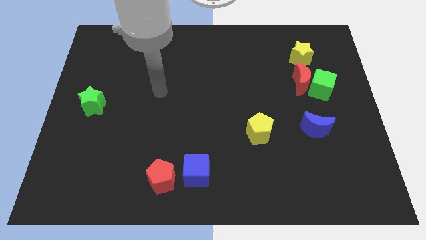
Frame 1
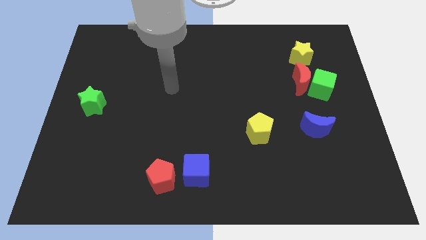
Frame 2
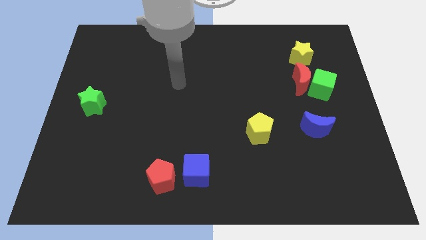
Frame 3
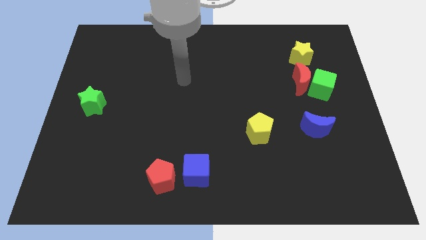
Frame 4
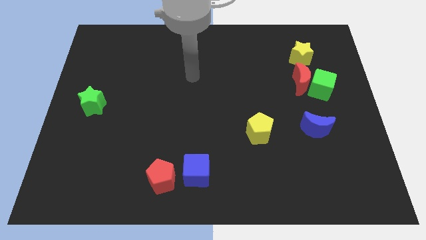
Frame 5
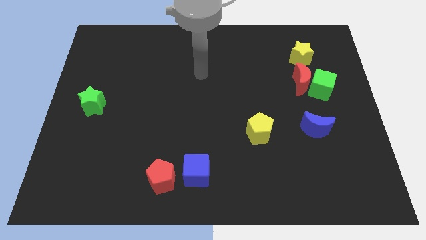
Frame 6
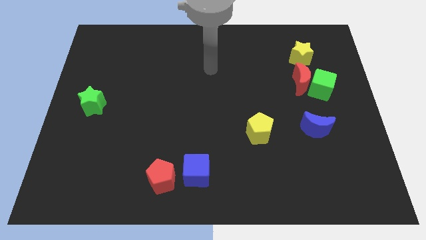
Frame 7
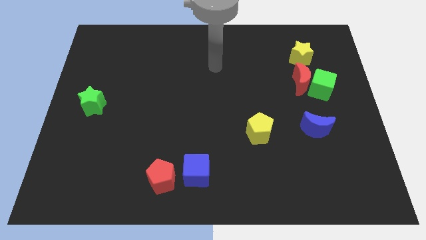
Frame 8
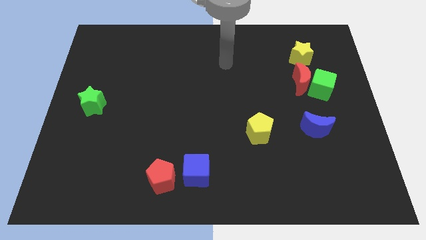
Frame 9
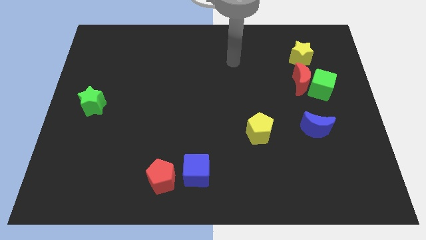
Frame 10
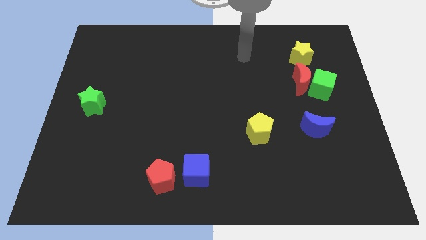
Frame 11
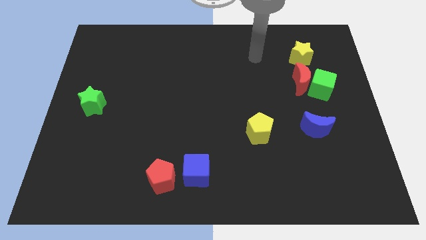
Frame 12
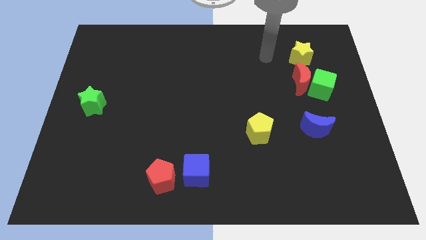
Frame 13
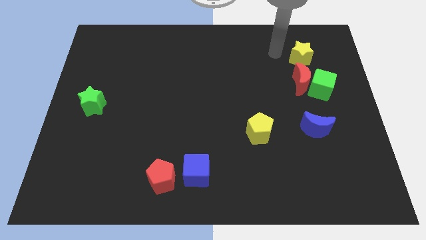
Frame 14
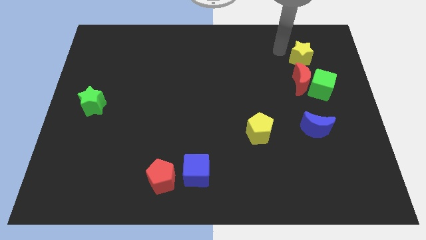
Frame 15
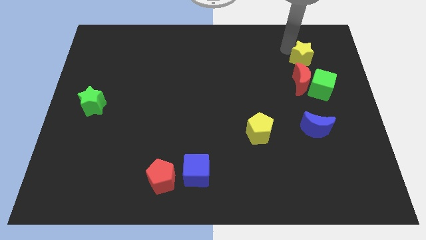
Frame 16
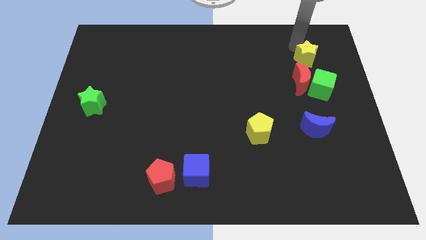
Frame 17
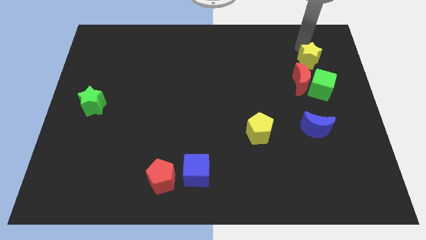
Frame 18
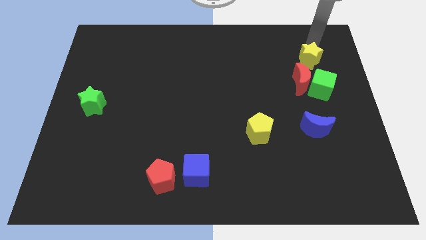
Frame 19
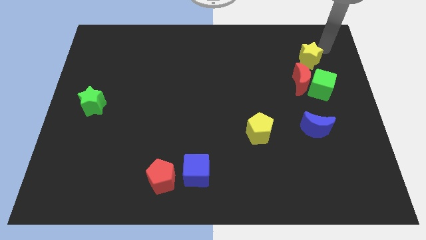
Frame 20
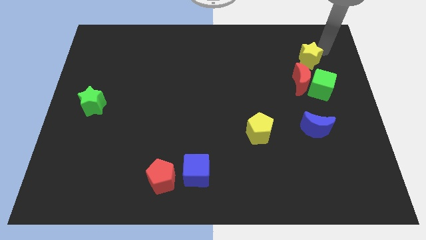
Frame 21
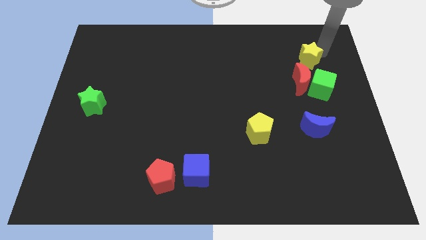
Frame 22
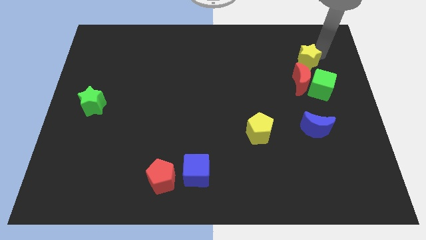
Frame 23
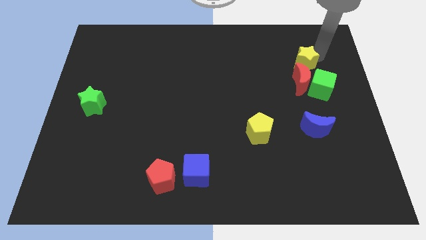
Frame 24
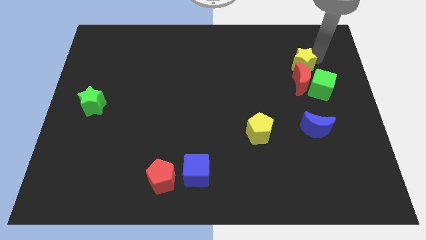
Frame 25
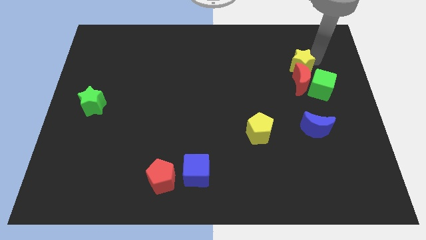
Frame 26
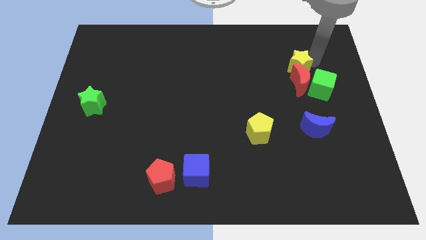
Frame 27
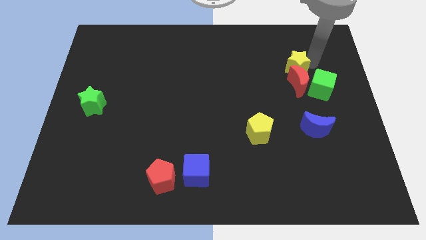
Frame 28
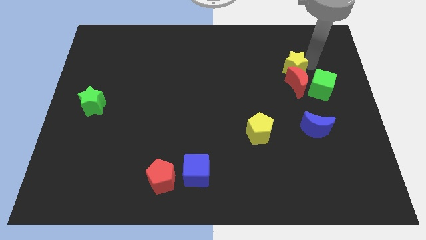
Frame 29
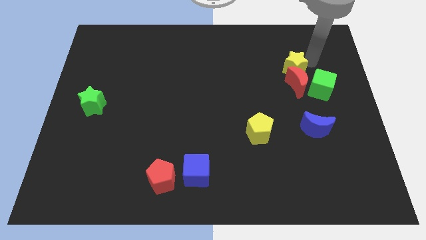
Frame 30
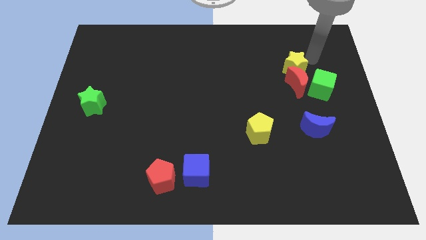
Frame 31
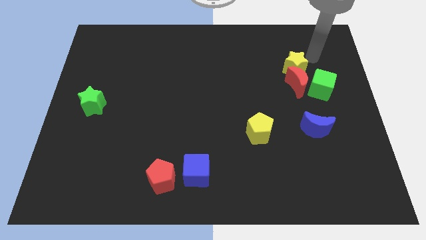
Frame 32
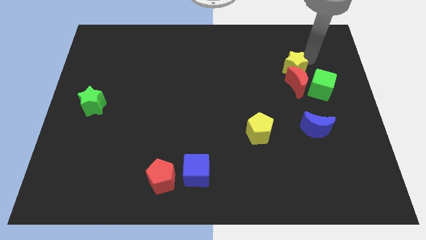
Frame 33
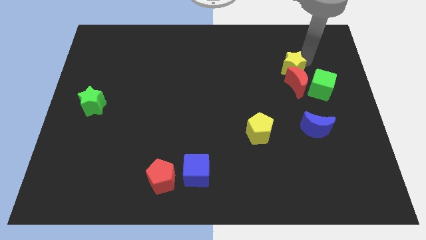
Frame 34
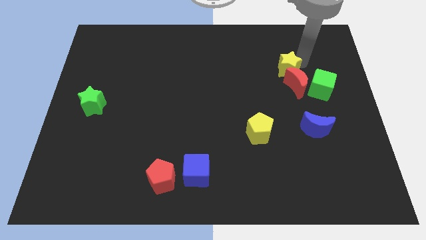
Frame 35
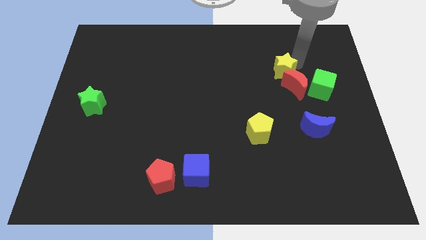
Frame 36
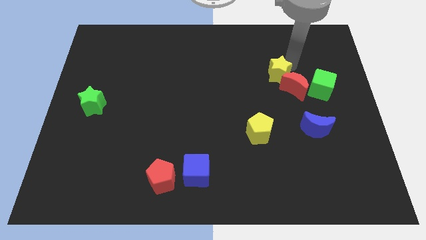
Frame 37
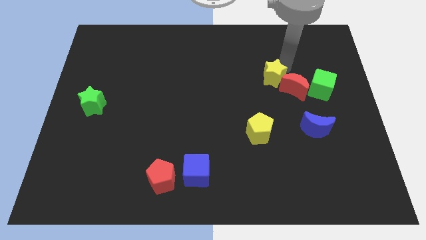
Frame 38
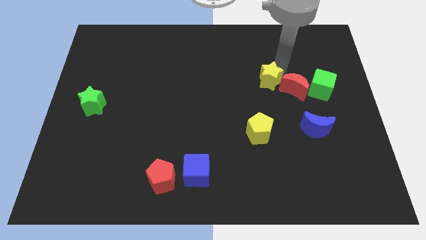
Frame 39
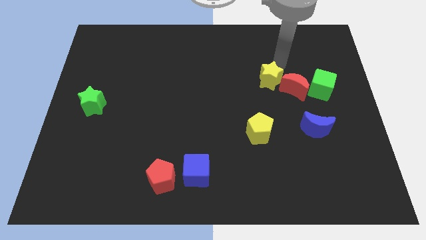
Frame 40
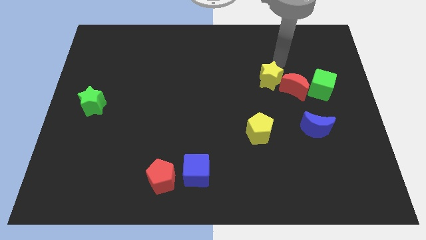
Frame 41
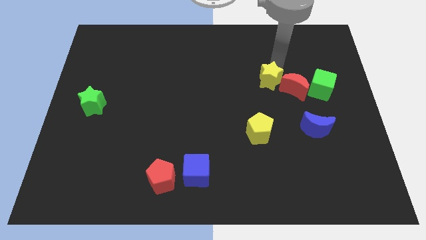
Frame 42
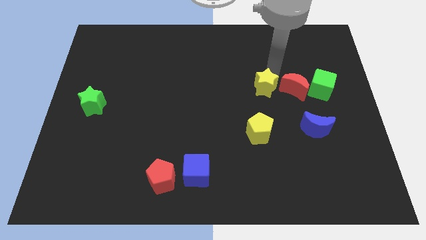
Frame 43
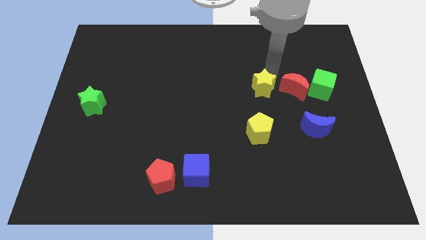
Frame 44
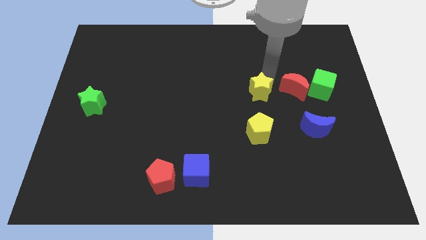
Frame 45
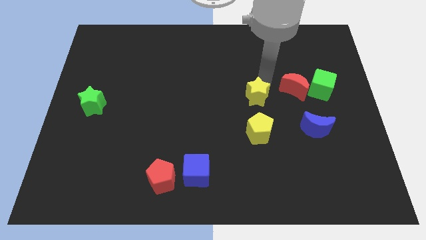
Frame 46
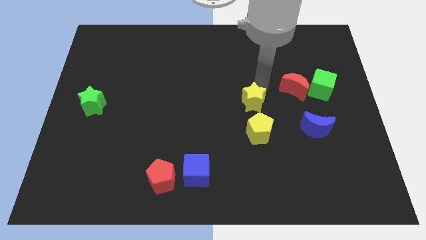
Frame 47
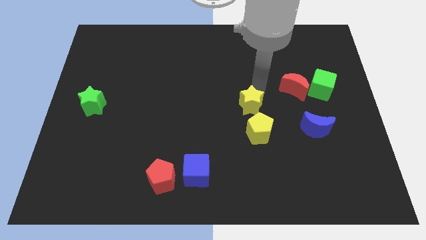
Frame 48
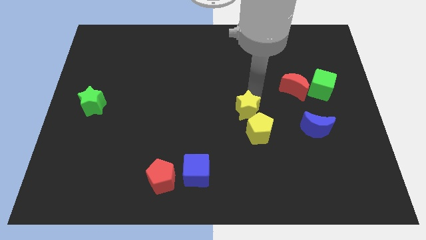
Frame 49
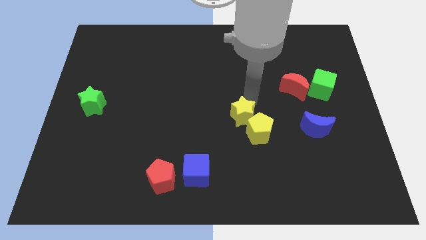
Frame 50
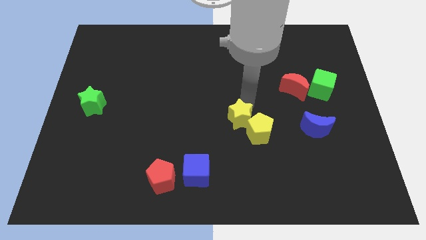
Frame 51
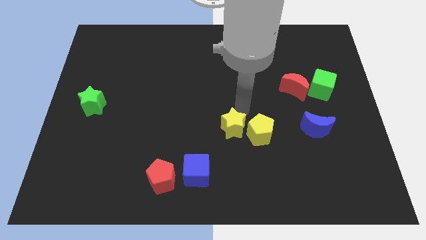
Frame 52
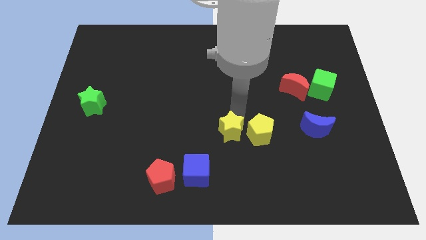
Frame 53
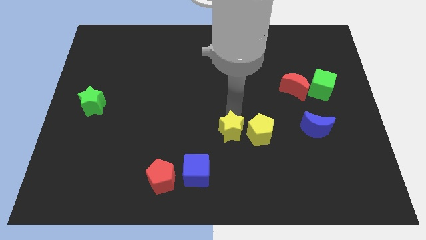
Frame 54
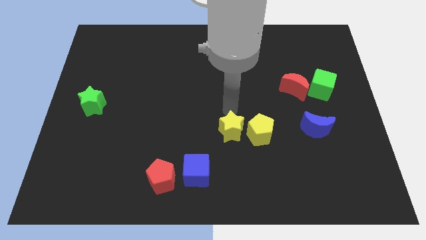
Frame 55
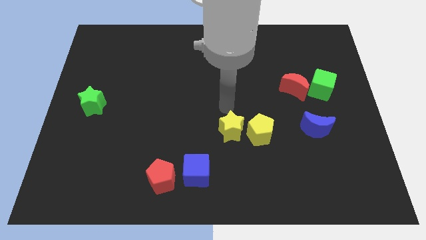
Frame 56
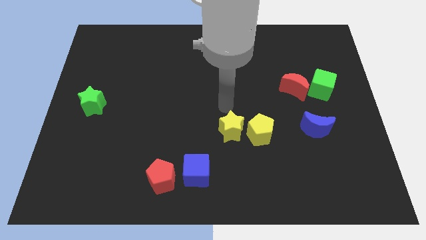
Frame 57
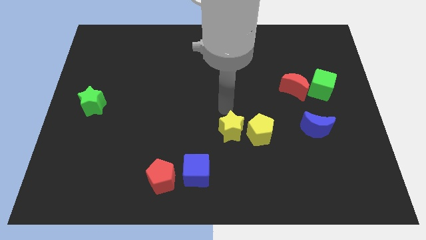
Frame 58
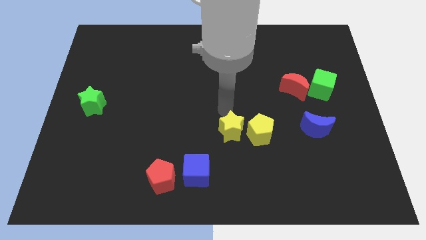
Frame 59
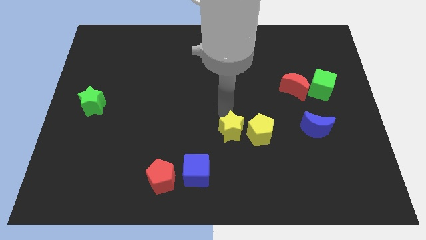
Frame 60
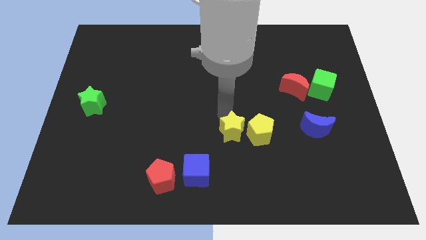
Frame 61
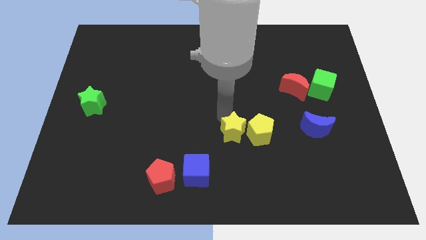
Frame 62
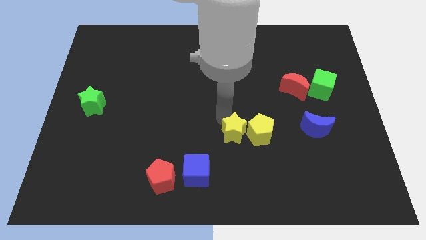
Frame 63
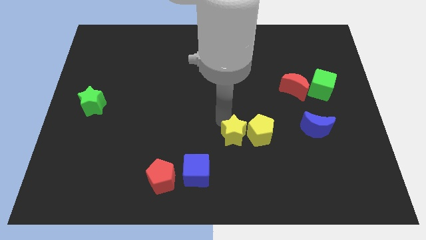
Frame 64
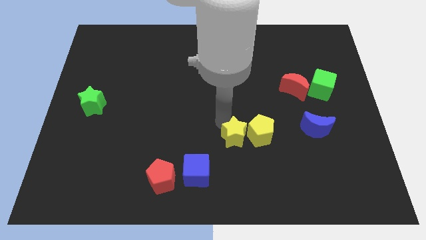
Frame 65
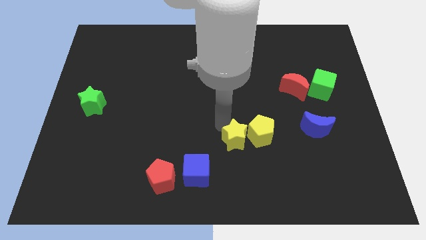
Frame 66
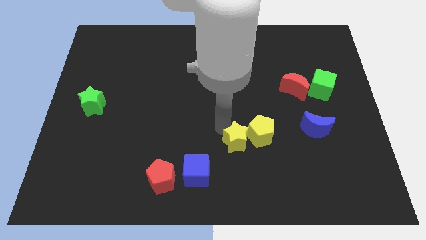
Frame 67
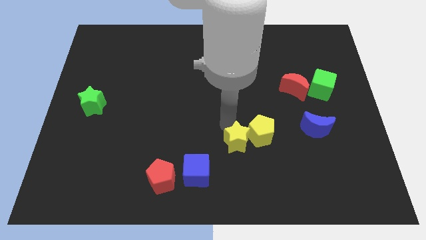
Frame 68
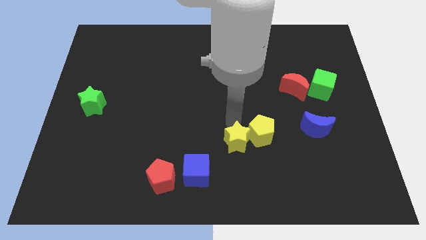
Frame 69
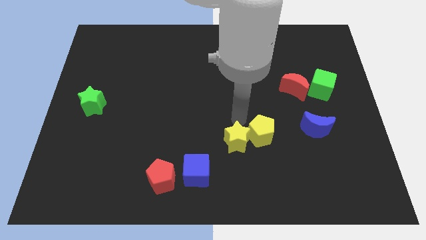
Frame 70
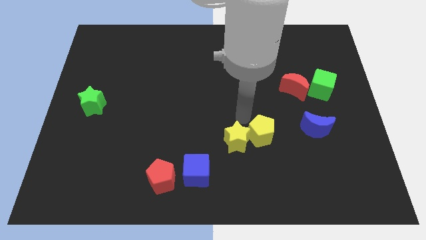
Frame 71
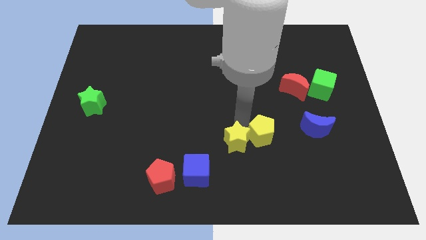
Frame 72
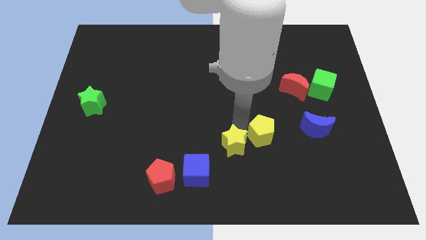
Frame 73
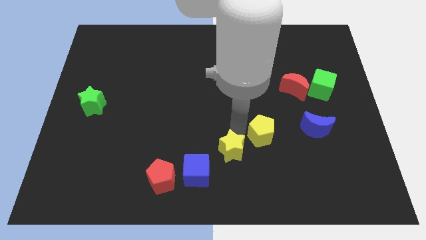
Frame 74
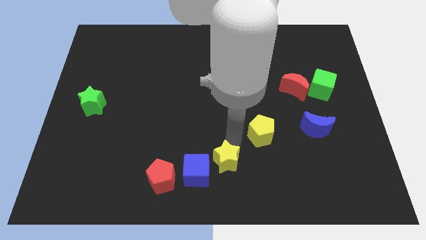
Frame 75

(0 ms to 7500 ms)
push the yellow star to the bottom
